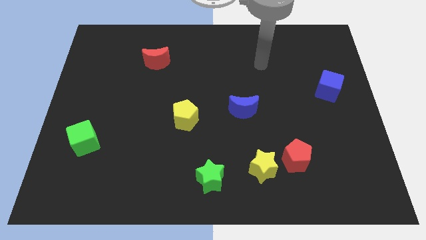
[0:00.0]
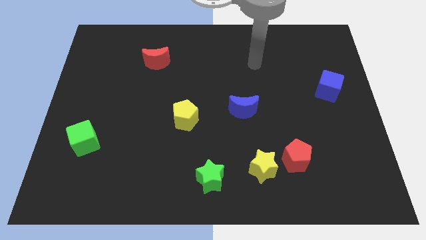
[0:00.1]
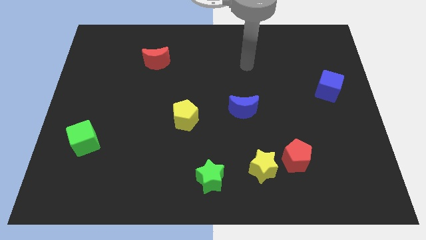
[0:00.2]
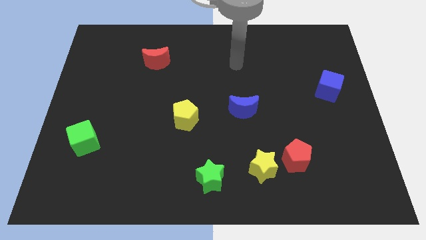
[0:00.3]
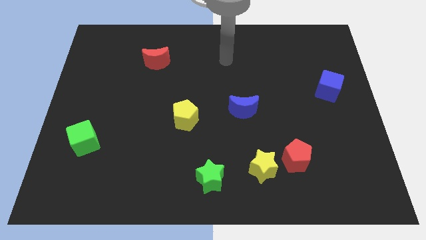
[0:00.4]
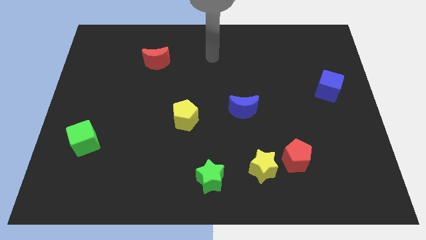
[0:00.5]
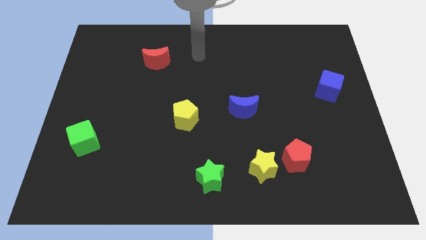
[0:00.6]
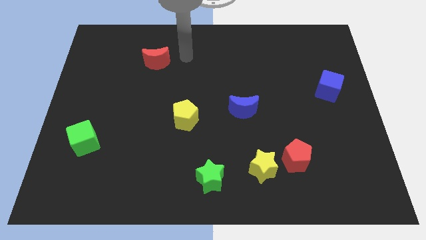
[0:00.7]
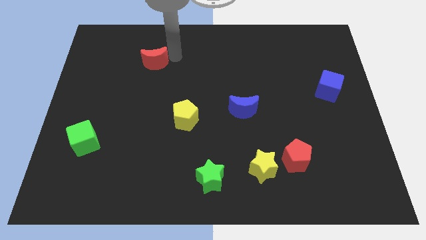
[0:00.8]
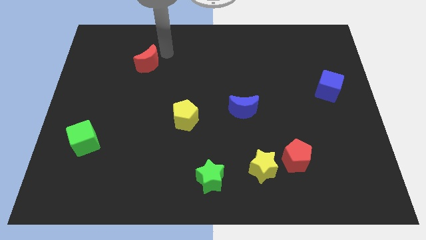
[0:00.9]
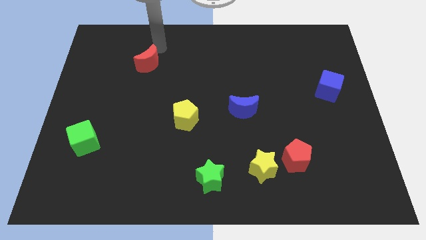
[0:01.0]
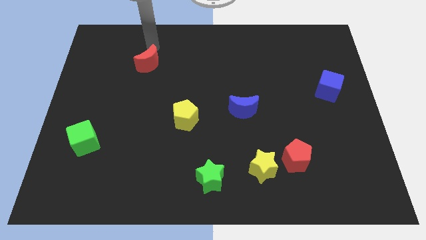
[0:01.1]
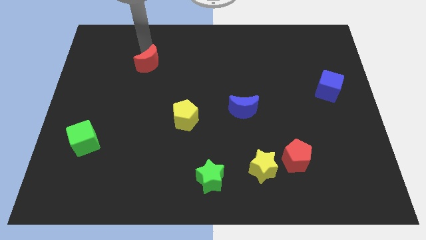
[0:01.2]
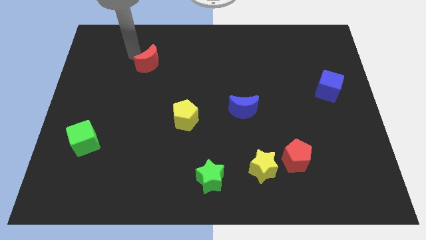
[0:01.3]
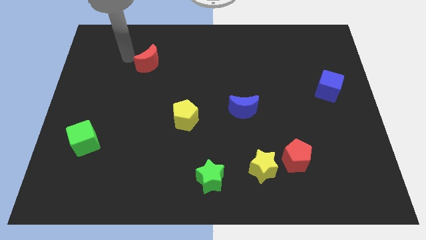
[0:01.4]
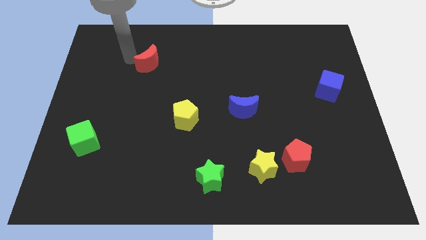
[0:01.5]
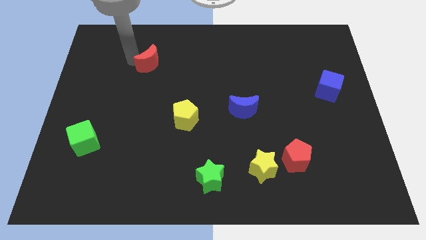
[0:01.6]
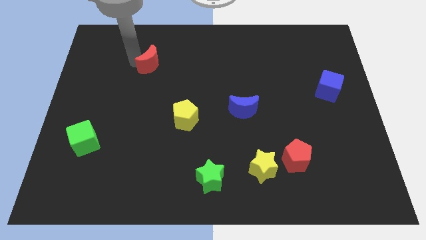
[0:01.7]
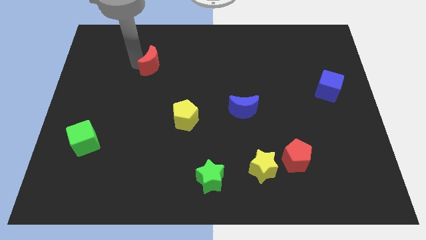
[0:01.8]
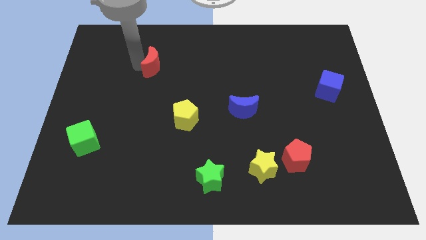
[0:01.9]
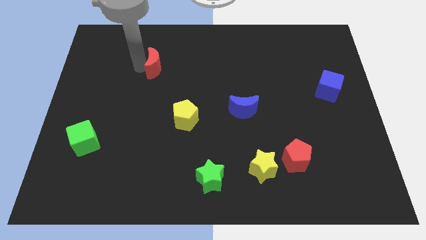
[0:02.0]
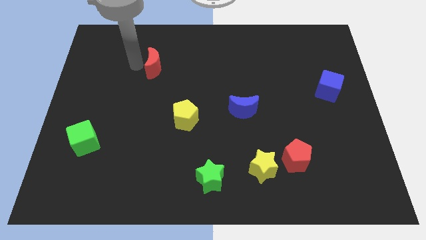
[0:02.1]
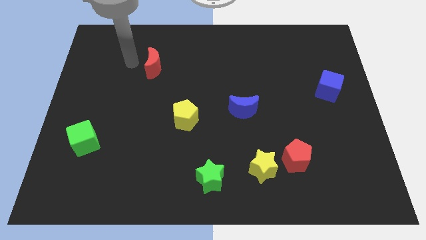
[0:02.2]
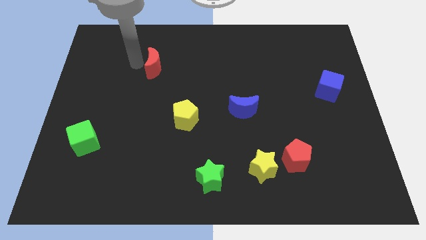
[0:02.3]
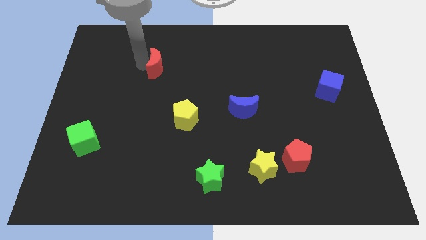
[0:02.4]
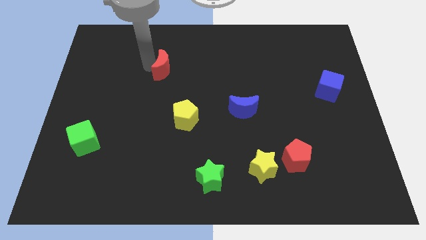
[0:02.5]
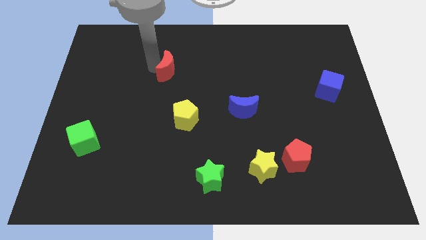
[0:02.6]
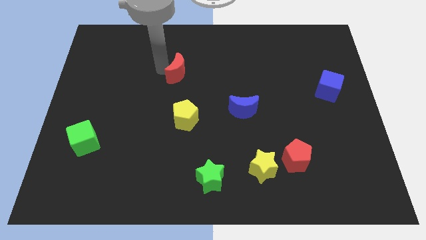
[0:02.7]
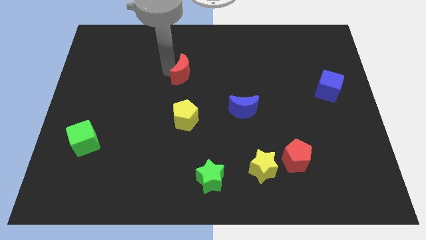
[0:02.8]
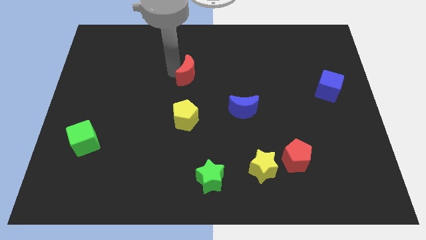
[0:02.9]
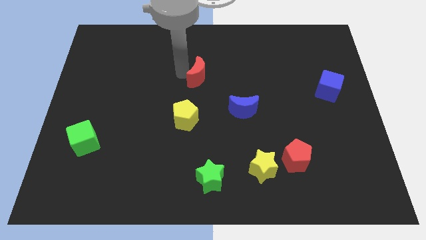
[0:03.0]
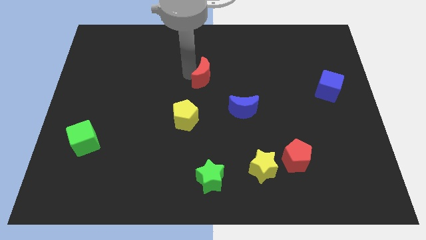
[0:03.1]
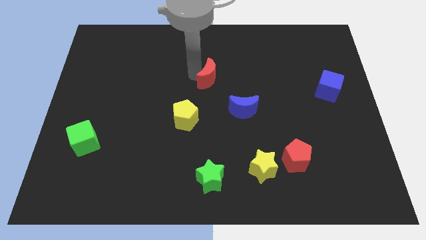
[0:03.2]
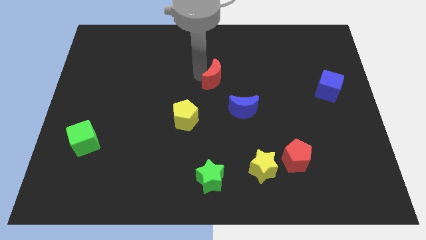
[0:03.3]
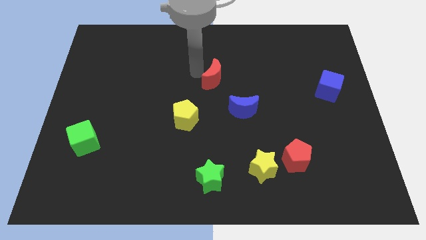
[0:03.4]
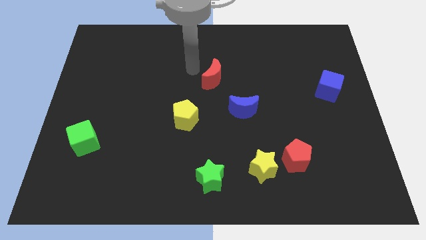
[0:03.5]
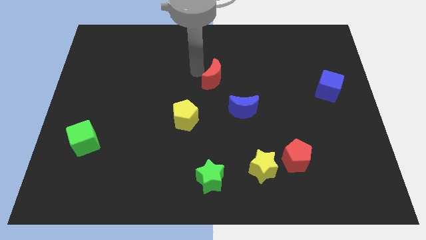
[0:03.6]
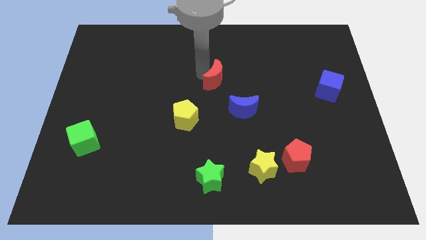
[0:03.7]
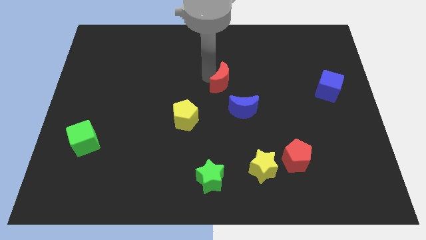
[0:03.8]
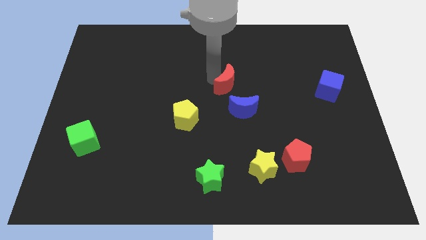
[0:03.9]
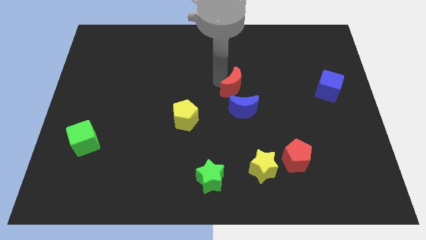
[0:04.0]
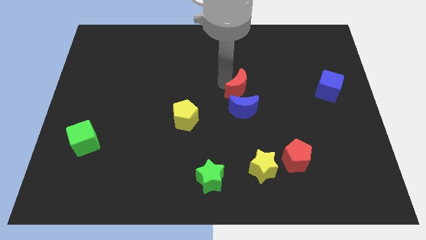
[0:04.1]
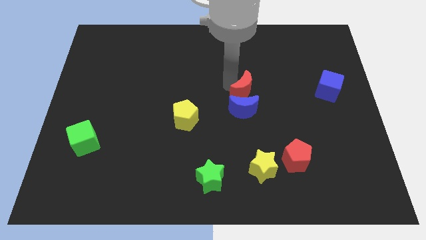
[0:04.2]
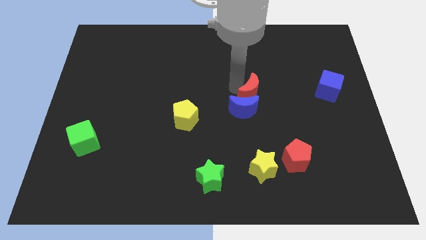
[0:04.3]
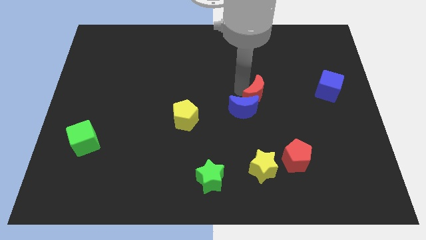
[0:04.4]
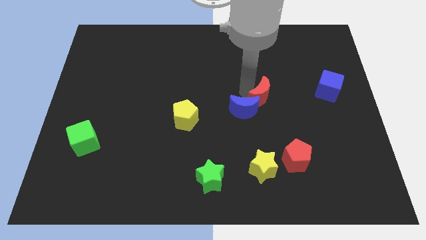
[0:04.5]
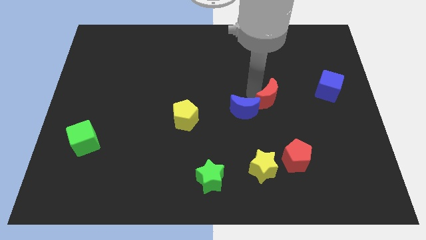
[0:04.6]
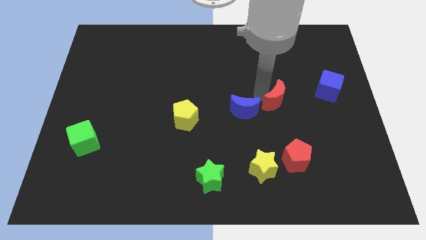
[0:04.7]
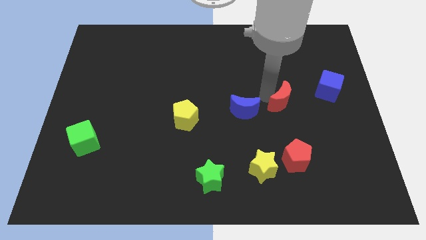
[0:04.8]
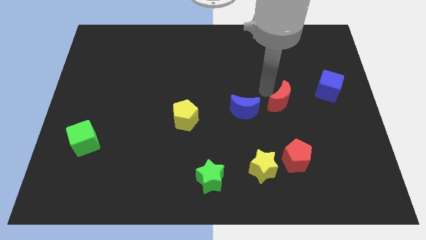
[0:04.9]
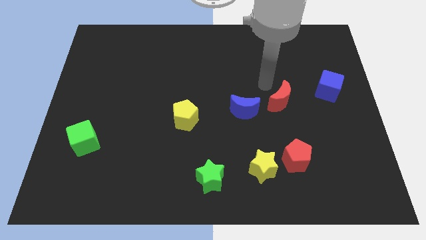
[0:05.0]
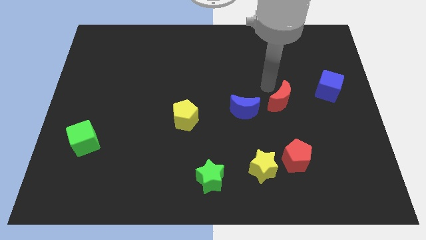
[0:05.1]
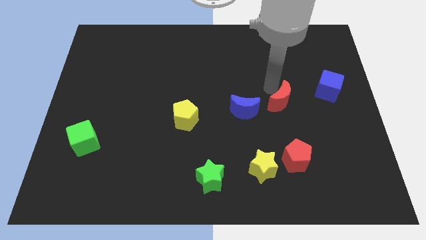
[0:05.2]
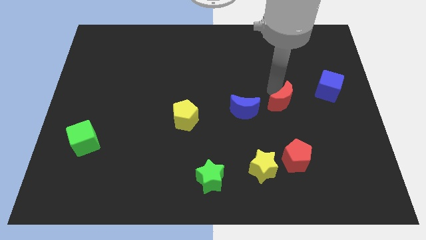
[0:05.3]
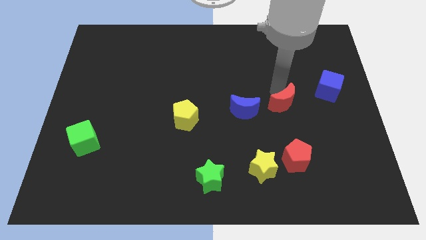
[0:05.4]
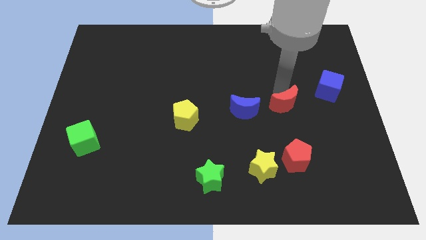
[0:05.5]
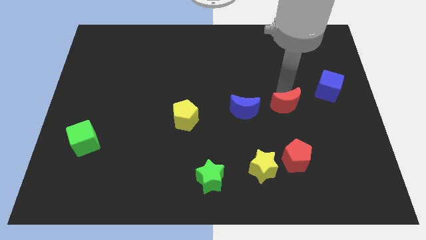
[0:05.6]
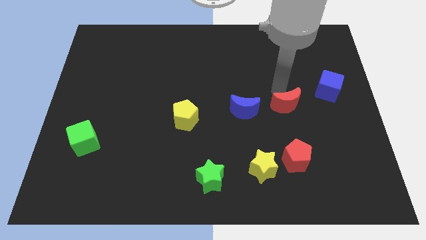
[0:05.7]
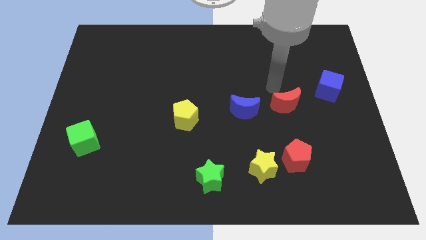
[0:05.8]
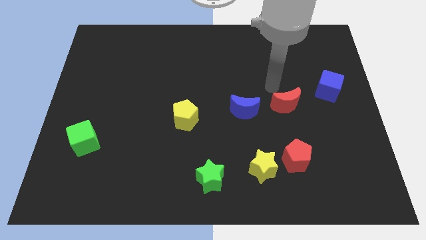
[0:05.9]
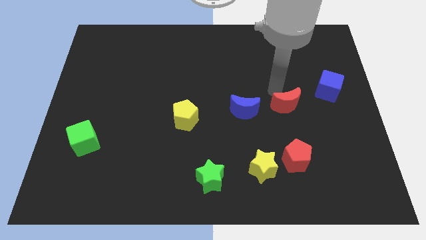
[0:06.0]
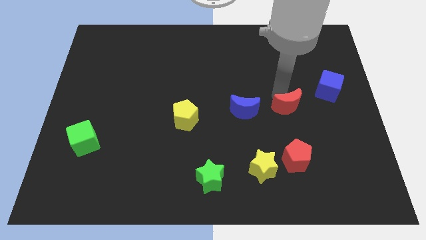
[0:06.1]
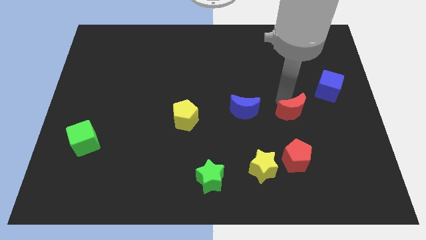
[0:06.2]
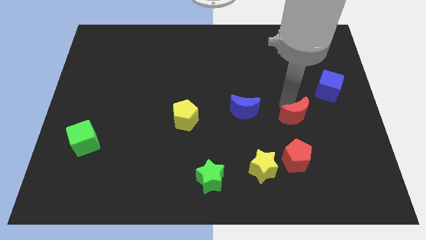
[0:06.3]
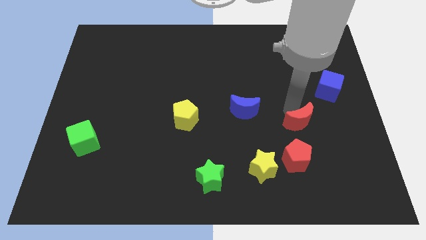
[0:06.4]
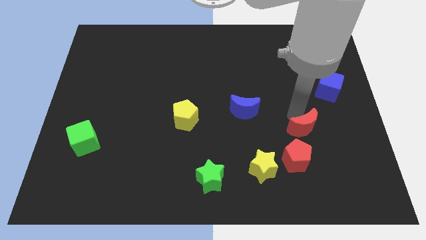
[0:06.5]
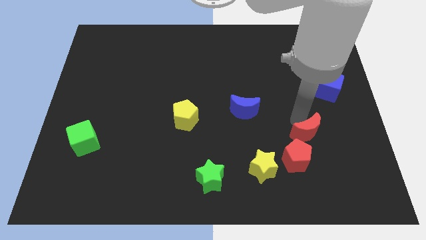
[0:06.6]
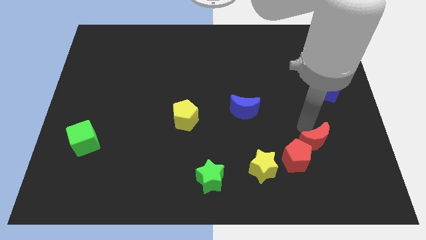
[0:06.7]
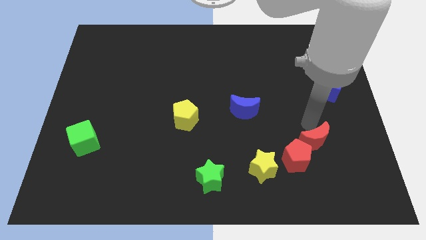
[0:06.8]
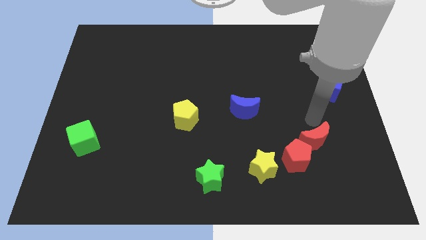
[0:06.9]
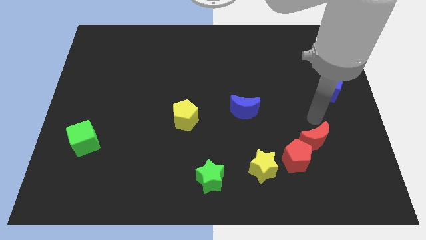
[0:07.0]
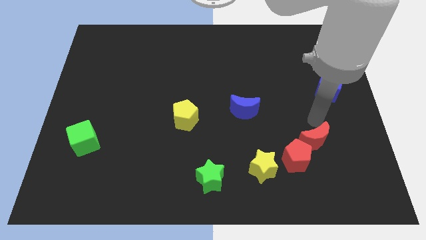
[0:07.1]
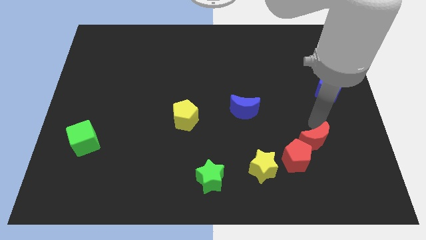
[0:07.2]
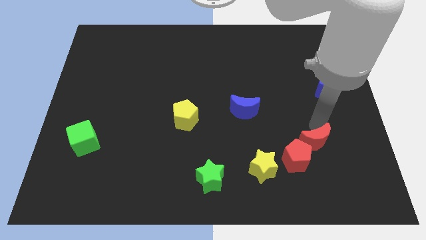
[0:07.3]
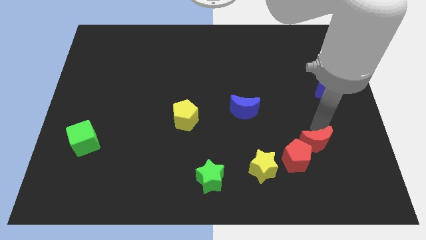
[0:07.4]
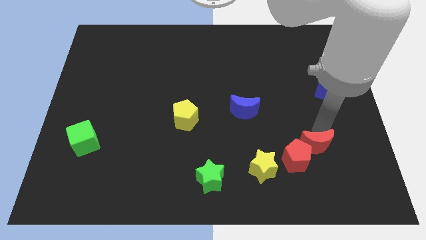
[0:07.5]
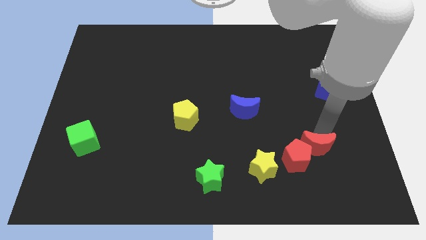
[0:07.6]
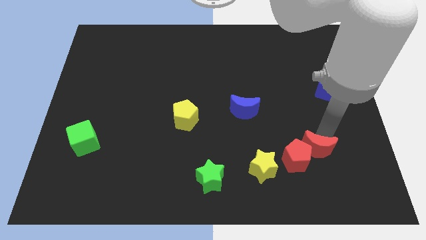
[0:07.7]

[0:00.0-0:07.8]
move the red moon just right of the yellow star

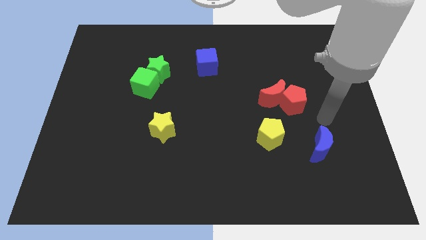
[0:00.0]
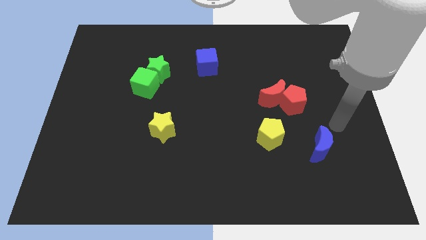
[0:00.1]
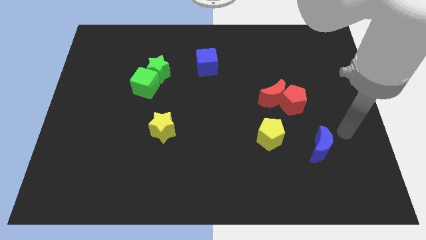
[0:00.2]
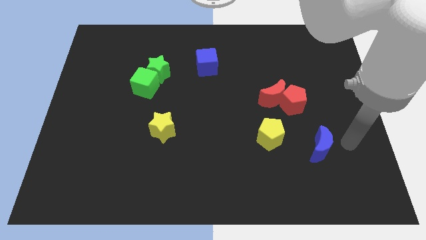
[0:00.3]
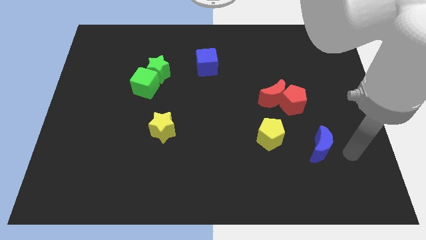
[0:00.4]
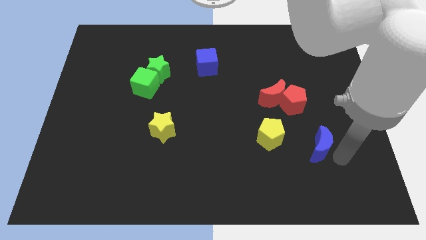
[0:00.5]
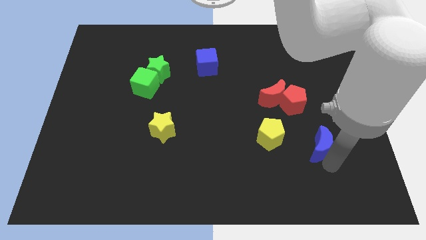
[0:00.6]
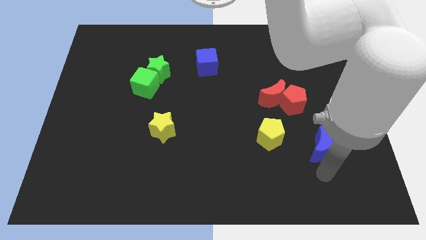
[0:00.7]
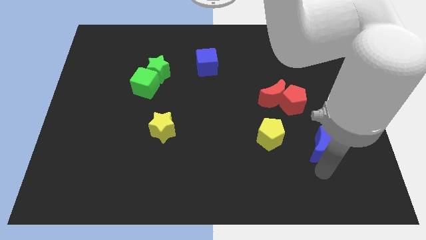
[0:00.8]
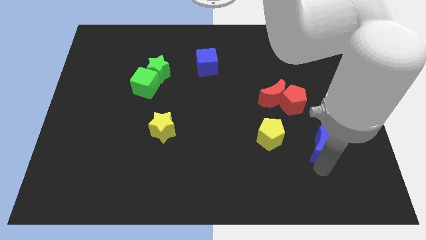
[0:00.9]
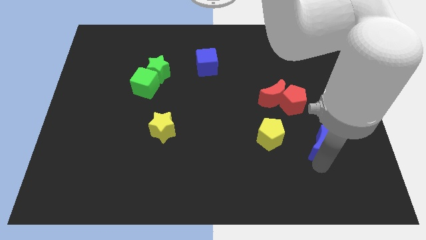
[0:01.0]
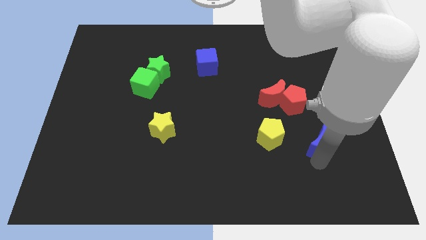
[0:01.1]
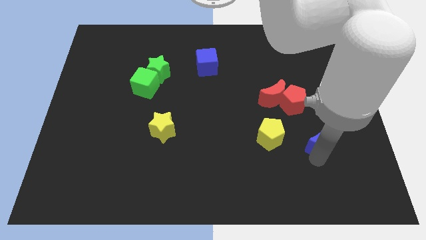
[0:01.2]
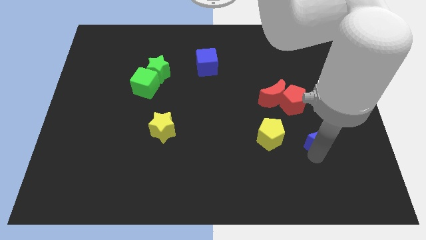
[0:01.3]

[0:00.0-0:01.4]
push the blue moon to the bottom right side of the red pentagon
